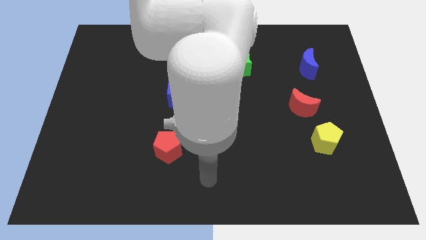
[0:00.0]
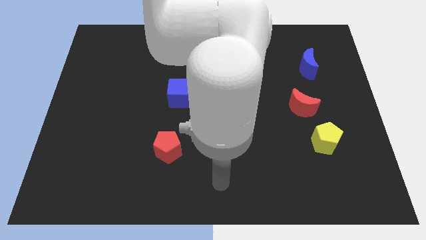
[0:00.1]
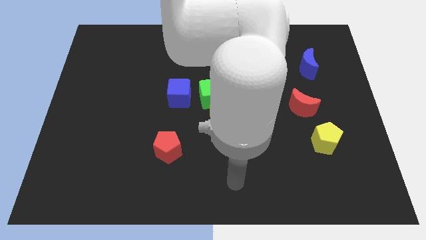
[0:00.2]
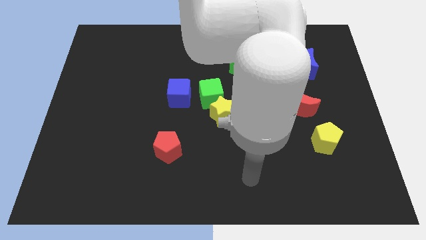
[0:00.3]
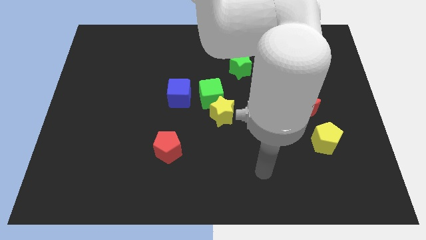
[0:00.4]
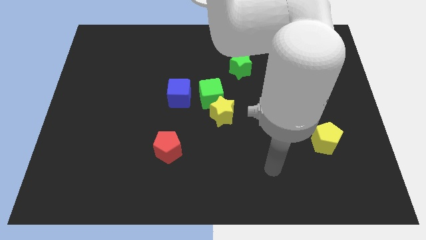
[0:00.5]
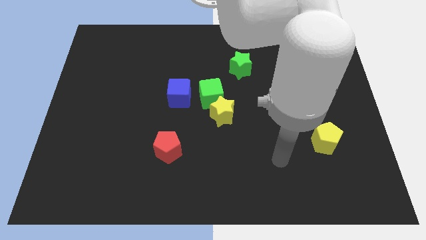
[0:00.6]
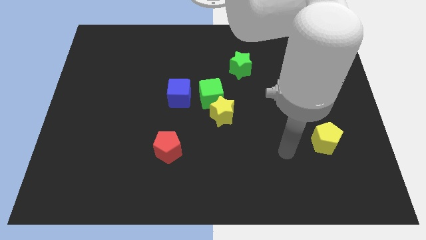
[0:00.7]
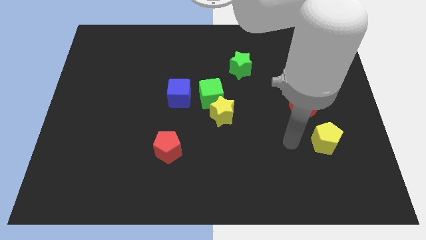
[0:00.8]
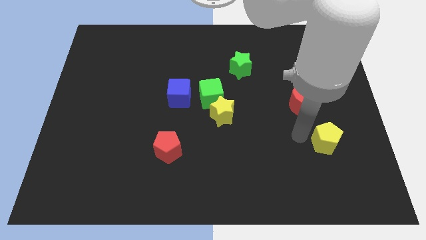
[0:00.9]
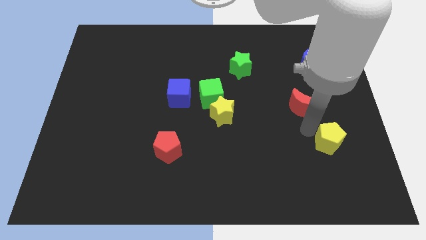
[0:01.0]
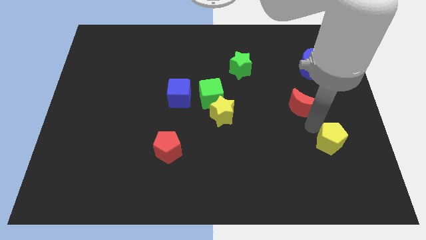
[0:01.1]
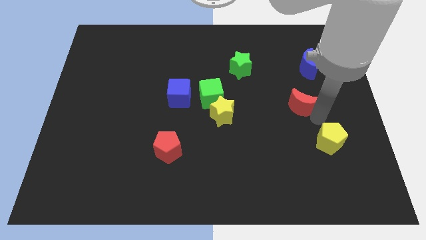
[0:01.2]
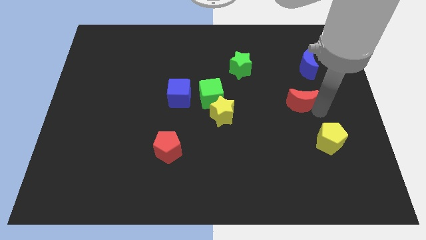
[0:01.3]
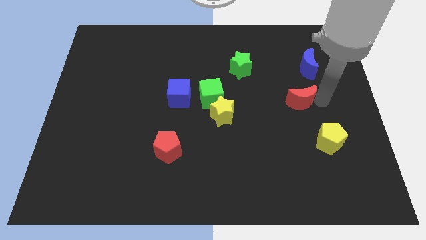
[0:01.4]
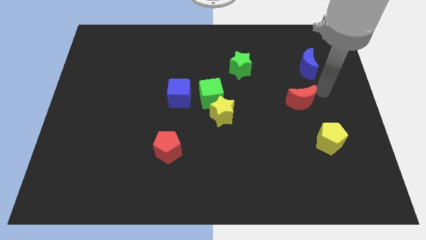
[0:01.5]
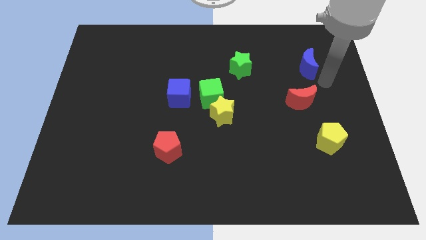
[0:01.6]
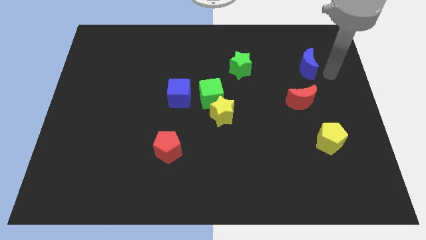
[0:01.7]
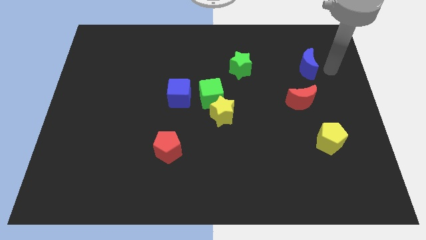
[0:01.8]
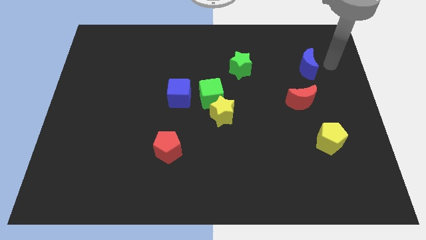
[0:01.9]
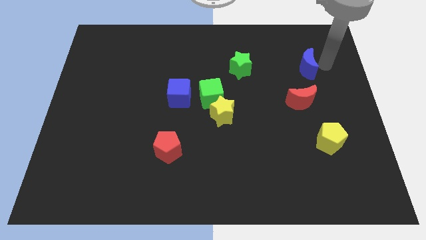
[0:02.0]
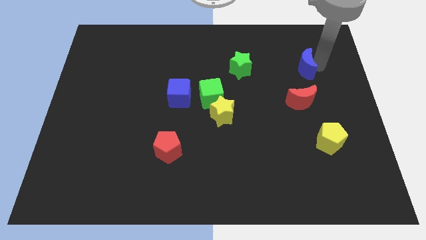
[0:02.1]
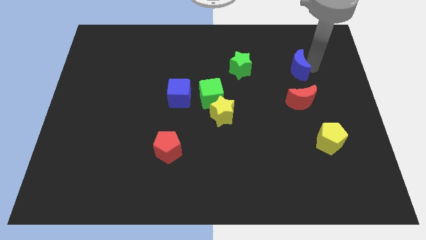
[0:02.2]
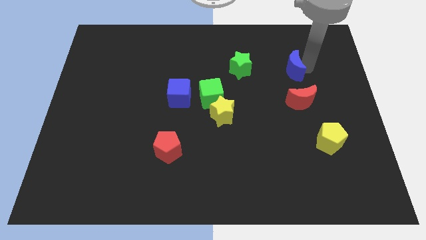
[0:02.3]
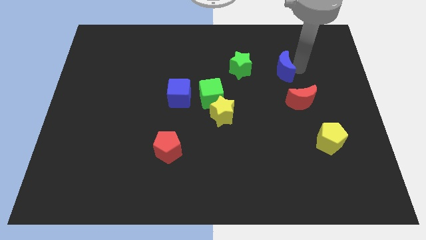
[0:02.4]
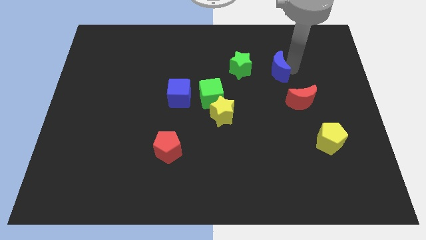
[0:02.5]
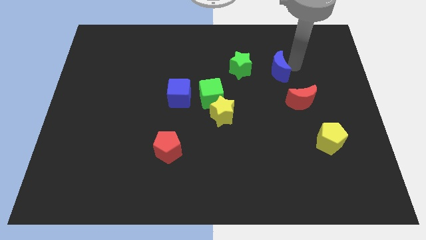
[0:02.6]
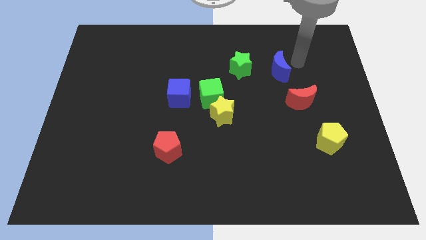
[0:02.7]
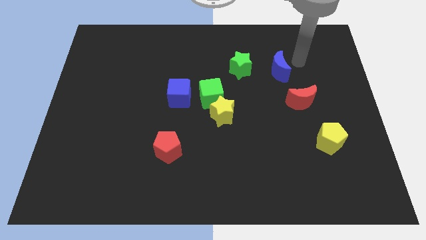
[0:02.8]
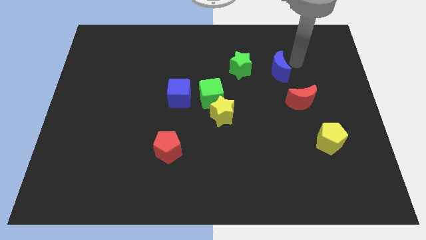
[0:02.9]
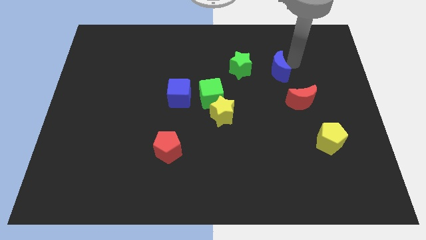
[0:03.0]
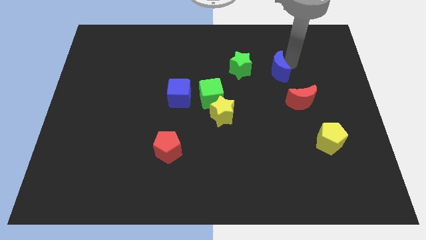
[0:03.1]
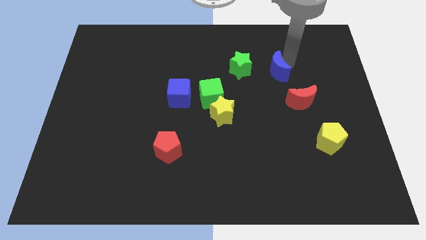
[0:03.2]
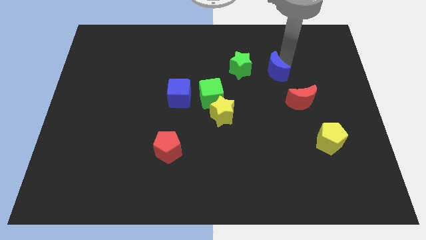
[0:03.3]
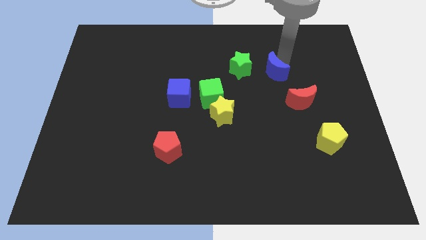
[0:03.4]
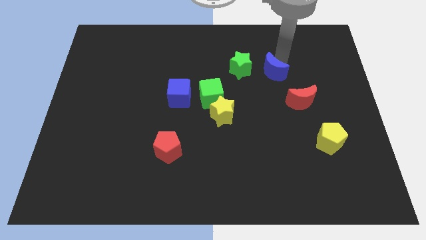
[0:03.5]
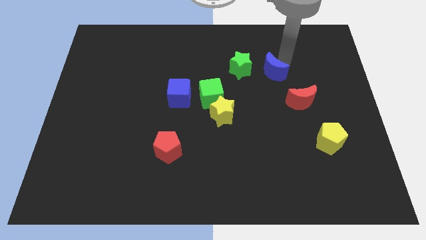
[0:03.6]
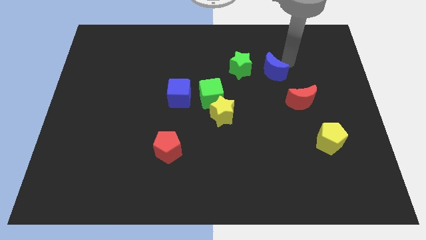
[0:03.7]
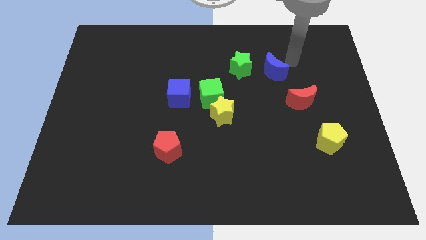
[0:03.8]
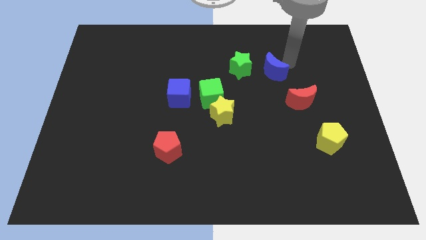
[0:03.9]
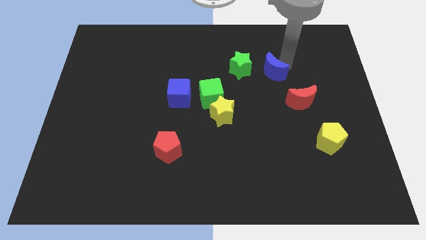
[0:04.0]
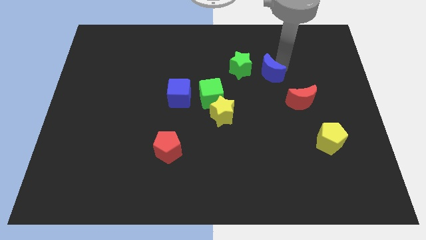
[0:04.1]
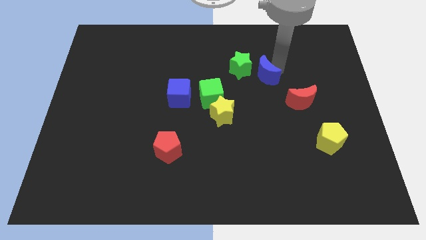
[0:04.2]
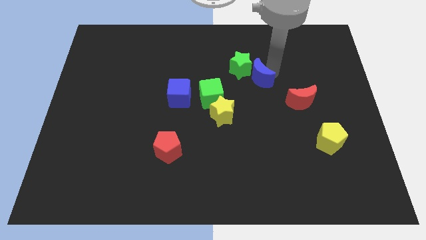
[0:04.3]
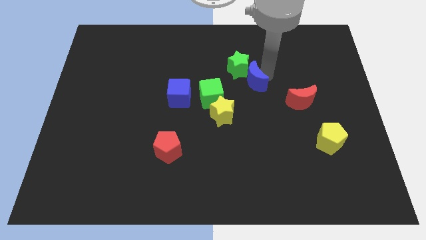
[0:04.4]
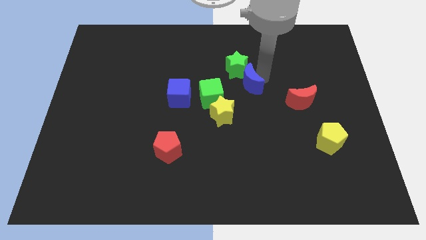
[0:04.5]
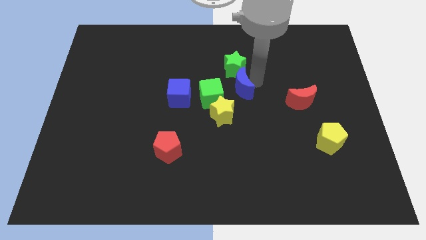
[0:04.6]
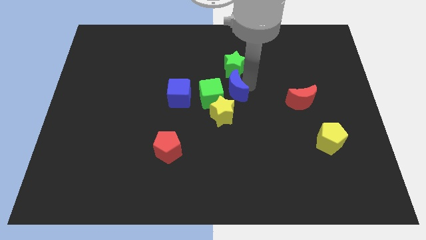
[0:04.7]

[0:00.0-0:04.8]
put the blue moon close to the green cube

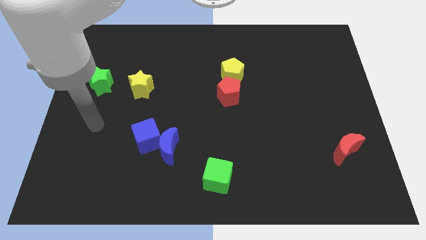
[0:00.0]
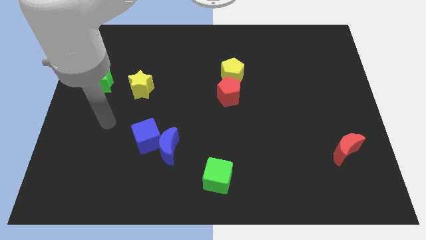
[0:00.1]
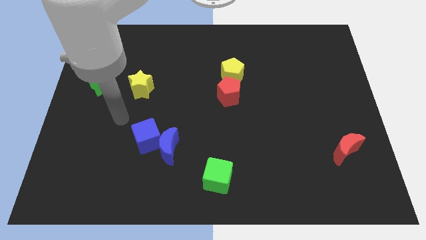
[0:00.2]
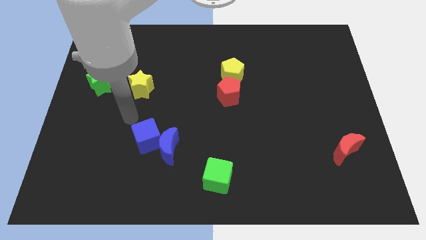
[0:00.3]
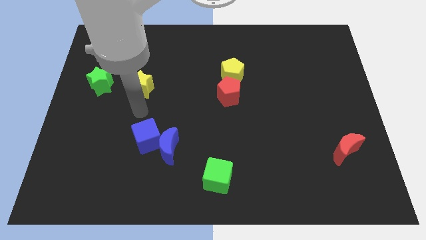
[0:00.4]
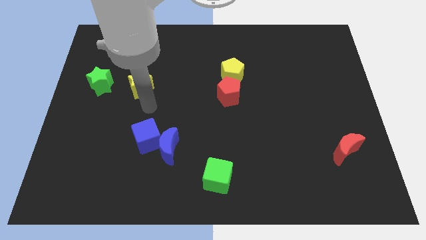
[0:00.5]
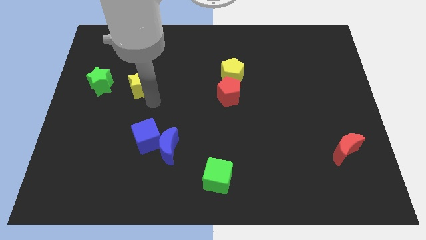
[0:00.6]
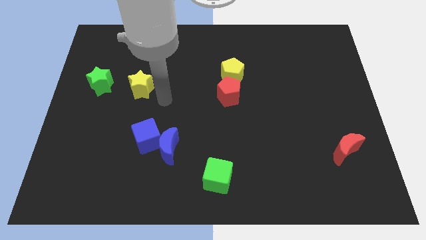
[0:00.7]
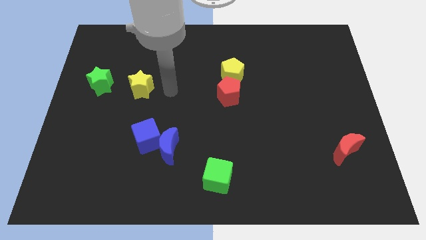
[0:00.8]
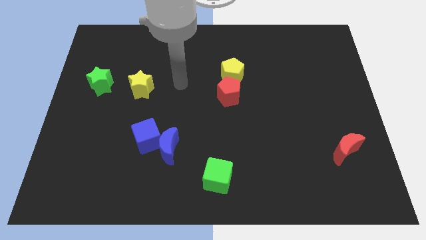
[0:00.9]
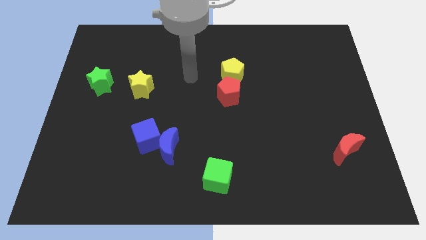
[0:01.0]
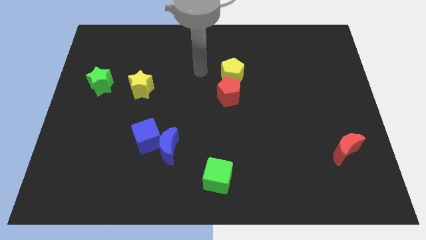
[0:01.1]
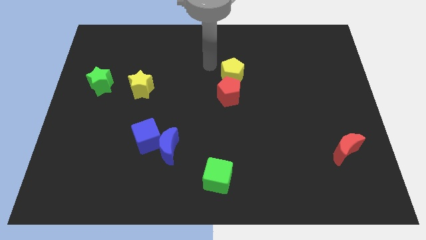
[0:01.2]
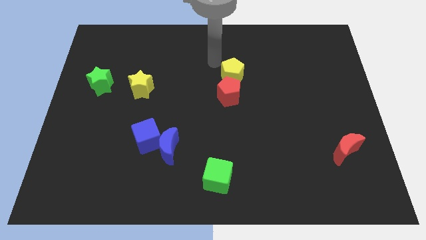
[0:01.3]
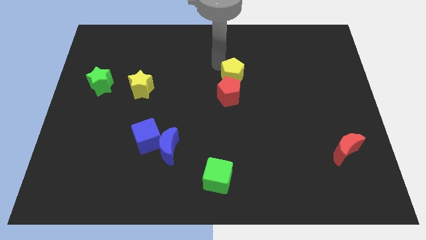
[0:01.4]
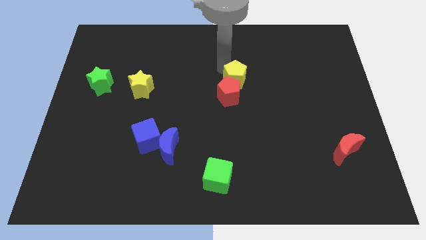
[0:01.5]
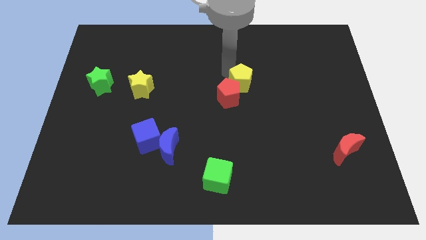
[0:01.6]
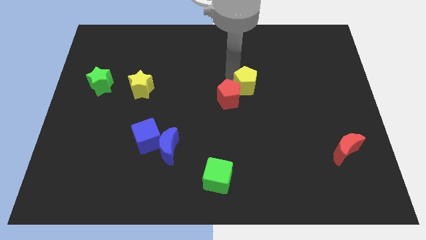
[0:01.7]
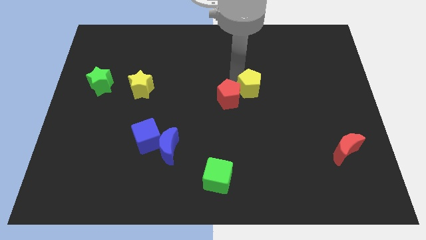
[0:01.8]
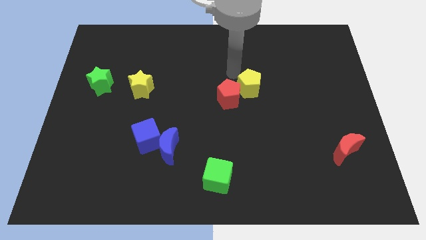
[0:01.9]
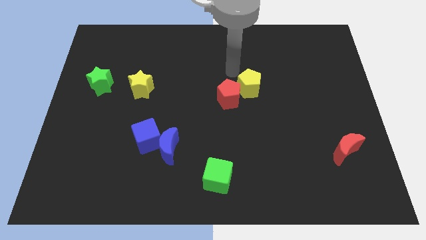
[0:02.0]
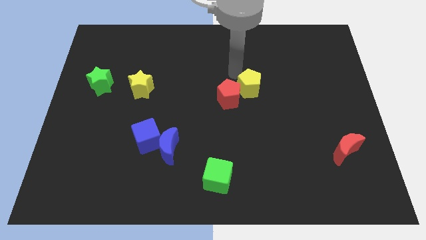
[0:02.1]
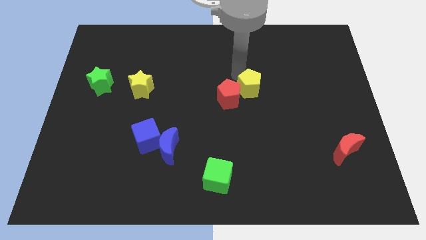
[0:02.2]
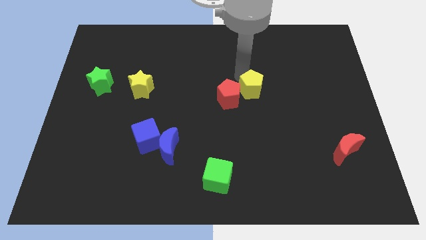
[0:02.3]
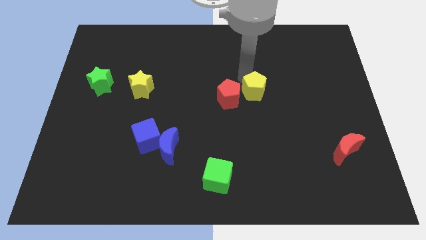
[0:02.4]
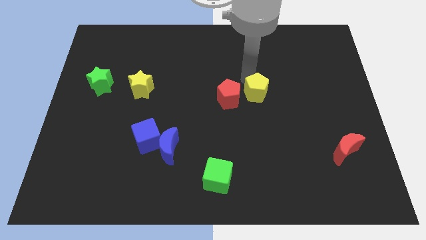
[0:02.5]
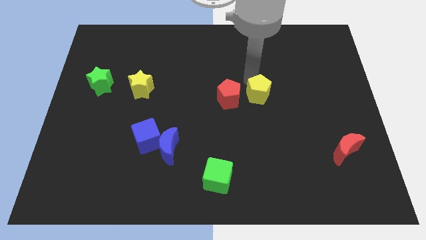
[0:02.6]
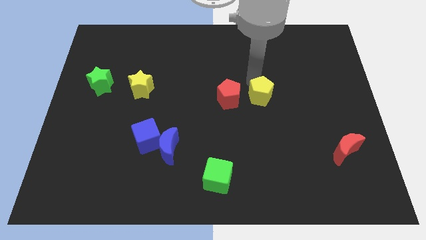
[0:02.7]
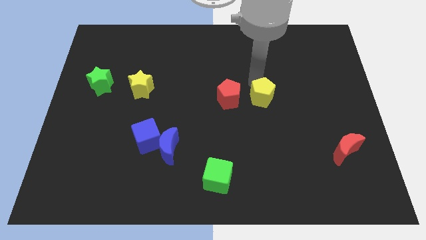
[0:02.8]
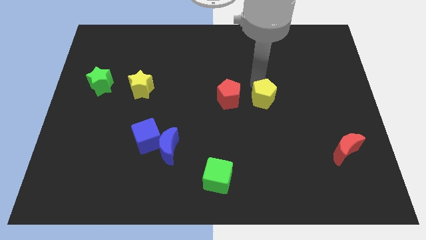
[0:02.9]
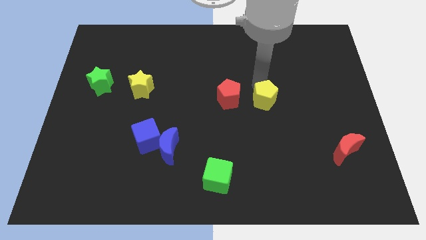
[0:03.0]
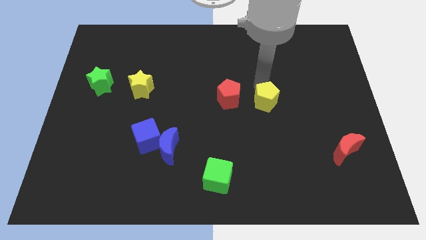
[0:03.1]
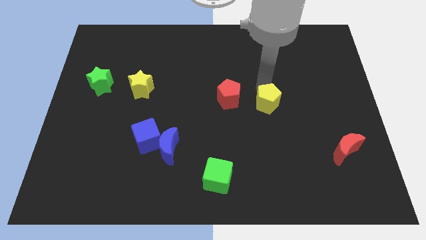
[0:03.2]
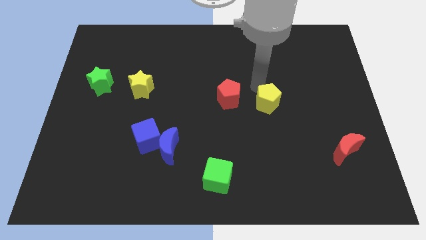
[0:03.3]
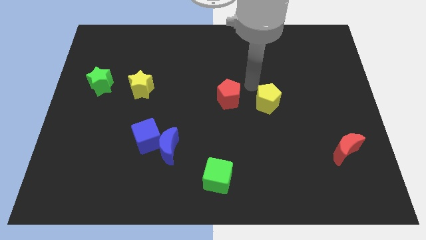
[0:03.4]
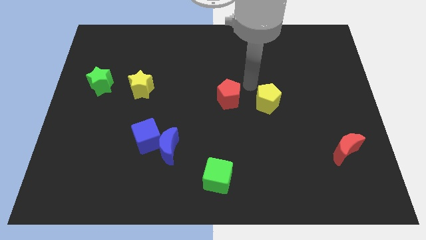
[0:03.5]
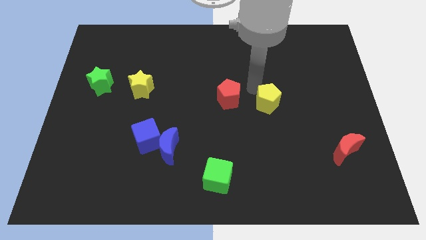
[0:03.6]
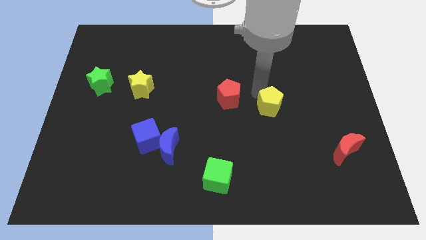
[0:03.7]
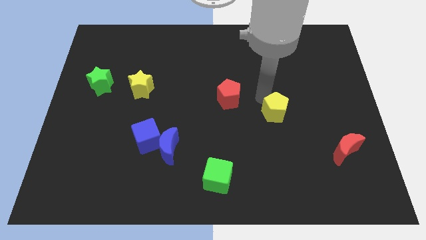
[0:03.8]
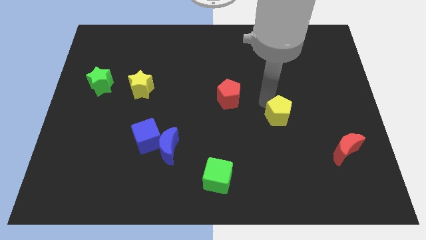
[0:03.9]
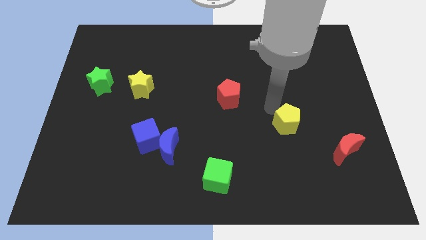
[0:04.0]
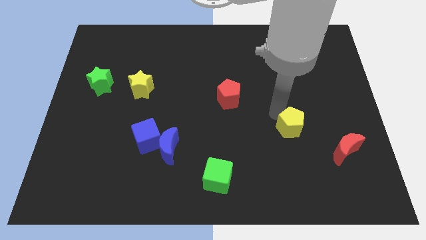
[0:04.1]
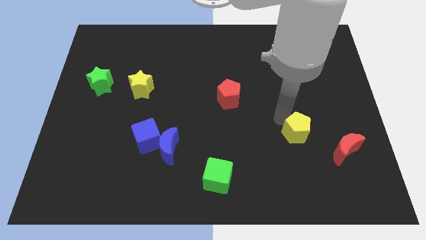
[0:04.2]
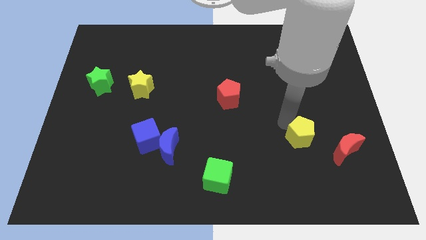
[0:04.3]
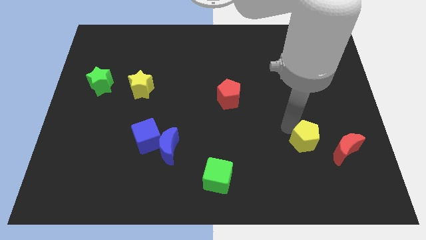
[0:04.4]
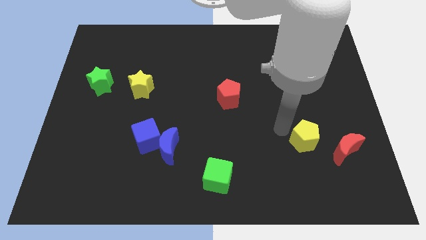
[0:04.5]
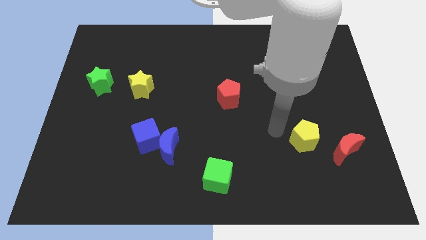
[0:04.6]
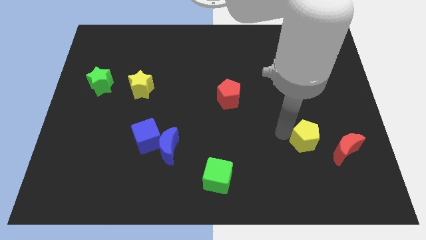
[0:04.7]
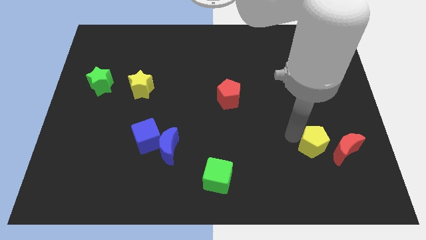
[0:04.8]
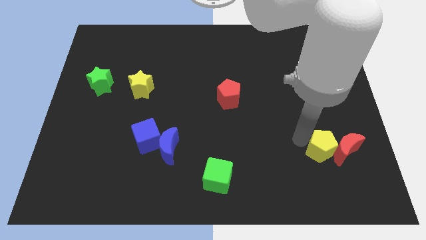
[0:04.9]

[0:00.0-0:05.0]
push the yellow pentagon to the red moon
